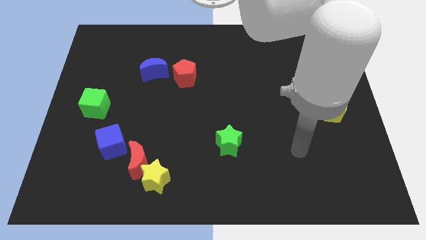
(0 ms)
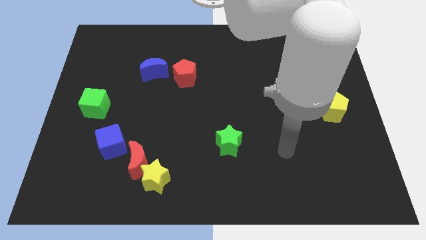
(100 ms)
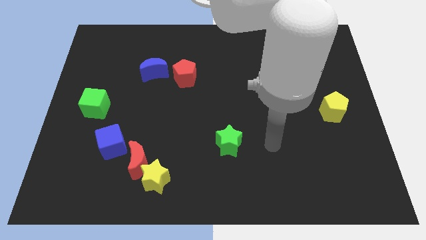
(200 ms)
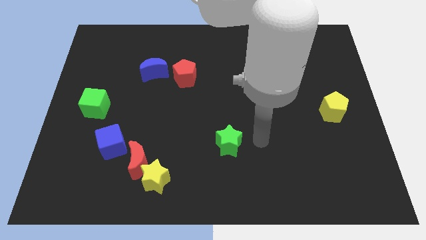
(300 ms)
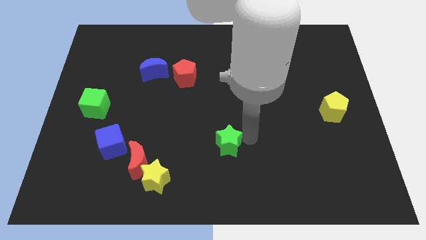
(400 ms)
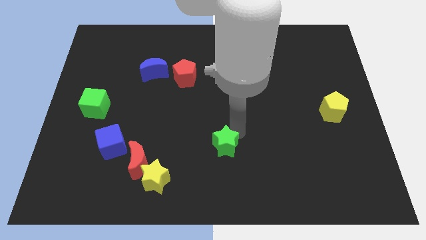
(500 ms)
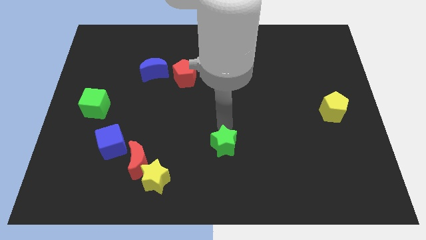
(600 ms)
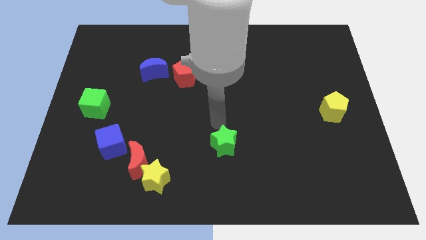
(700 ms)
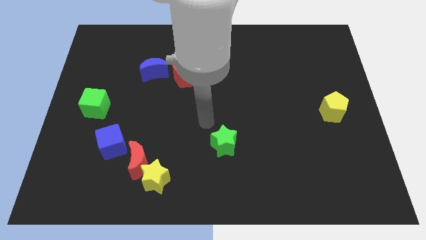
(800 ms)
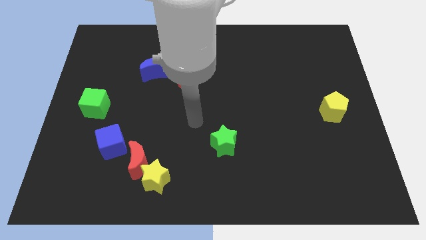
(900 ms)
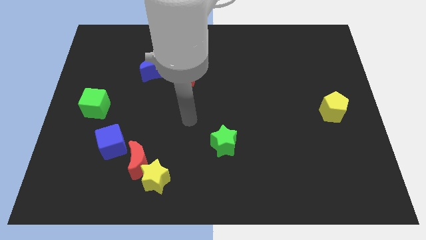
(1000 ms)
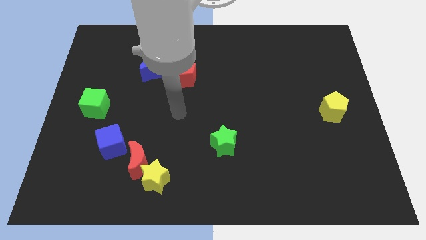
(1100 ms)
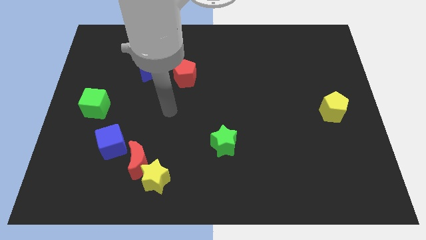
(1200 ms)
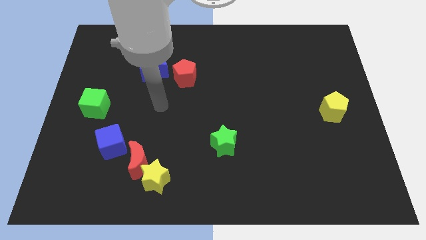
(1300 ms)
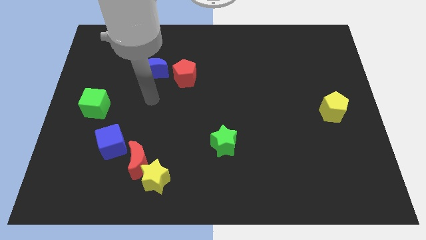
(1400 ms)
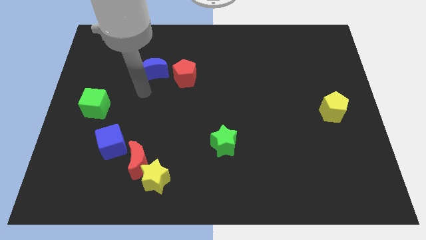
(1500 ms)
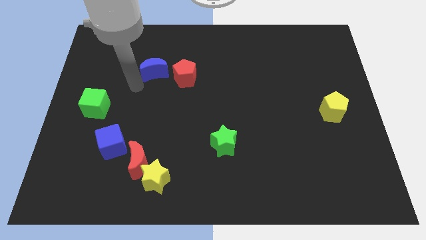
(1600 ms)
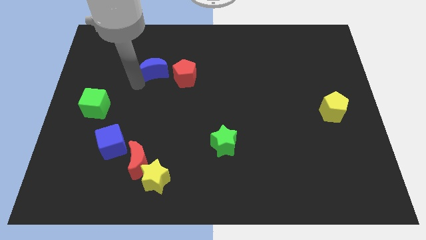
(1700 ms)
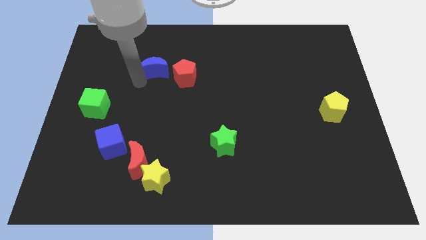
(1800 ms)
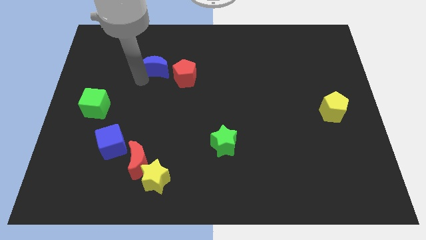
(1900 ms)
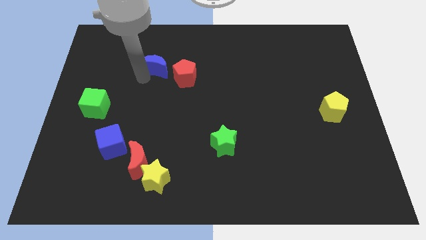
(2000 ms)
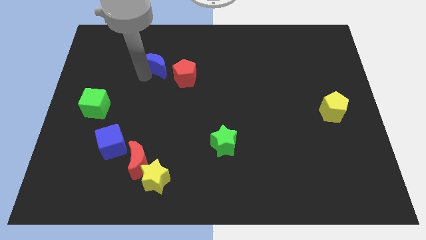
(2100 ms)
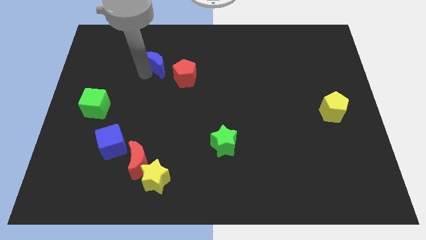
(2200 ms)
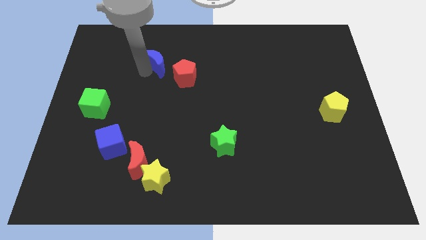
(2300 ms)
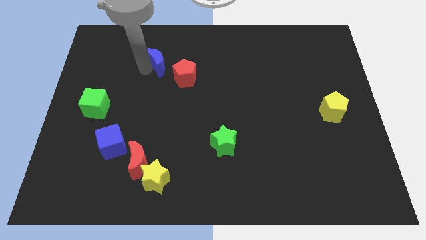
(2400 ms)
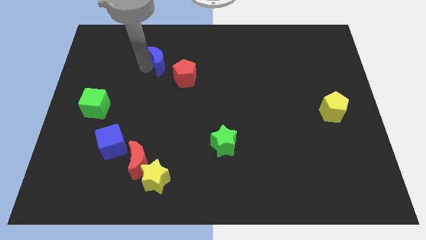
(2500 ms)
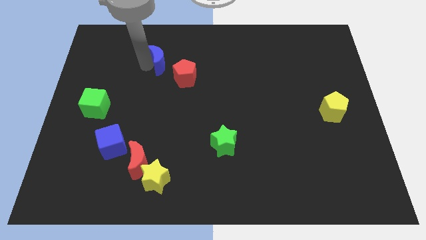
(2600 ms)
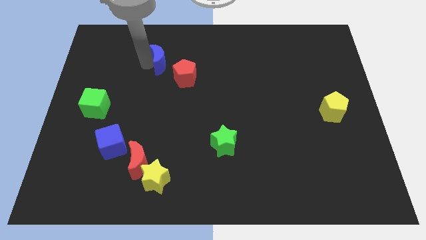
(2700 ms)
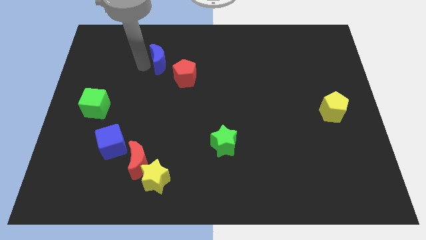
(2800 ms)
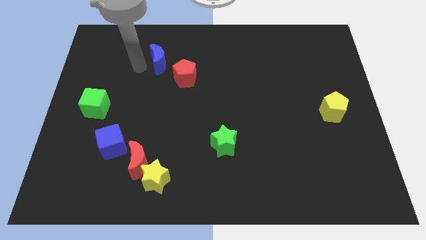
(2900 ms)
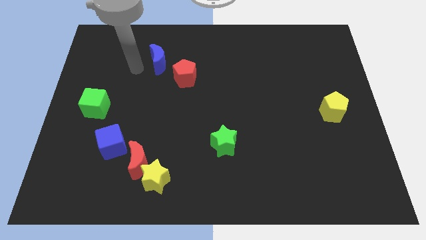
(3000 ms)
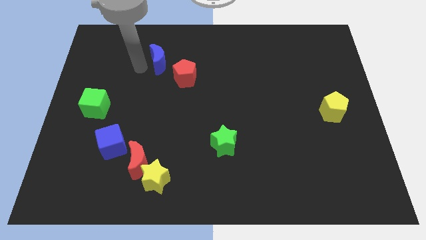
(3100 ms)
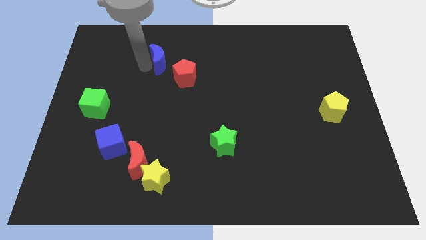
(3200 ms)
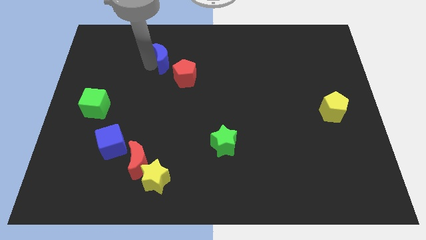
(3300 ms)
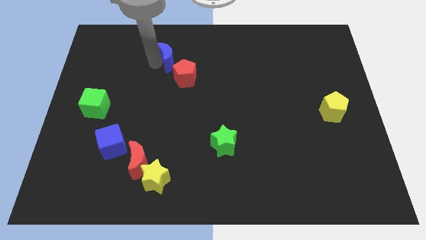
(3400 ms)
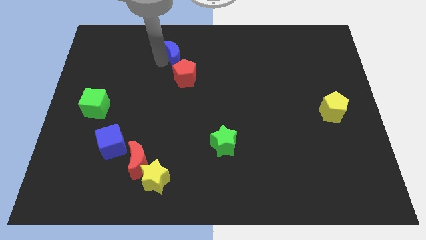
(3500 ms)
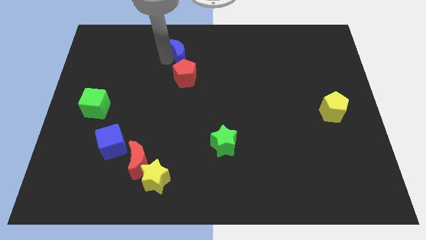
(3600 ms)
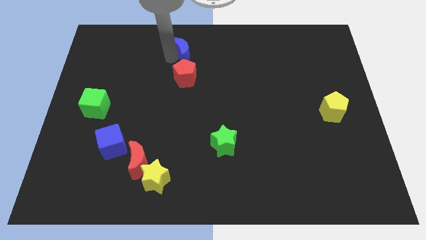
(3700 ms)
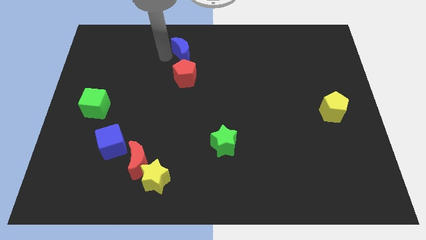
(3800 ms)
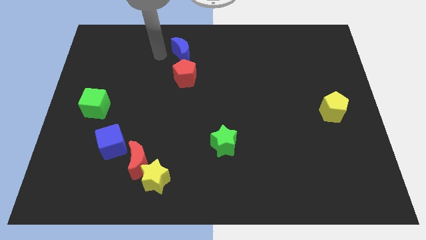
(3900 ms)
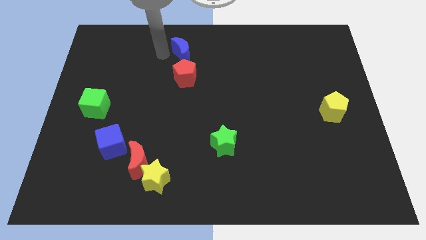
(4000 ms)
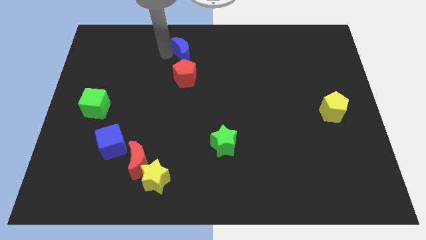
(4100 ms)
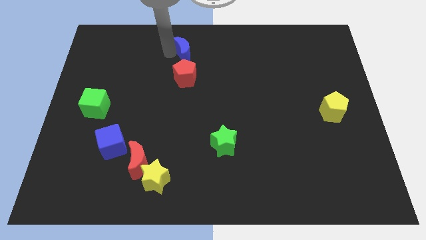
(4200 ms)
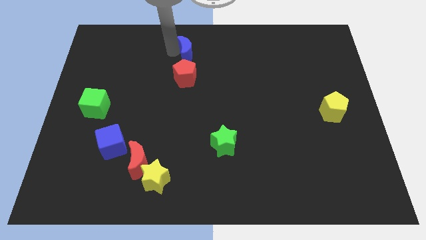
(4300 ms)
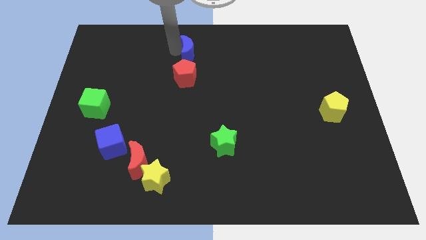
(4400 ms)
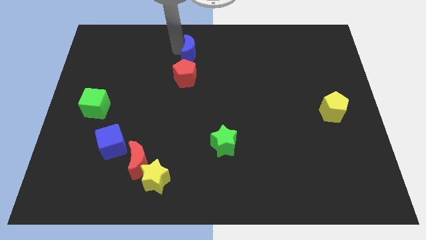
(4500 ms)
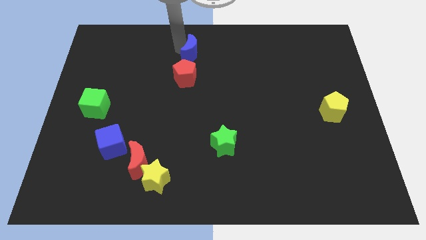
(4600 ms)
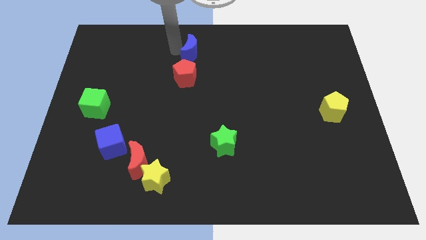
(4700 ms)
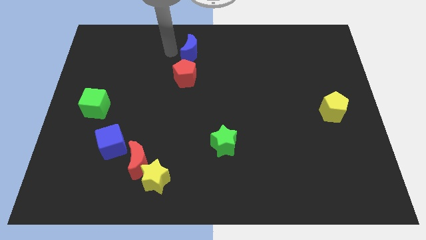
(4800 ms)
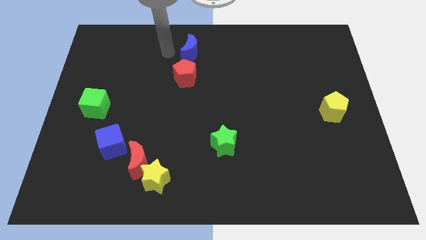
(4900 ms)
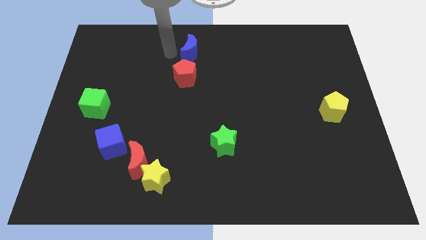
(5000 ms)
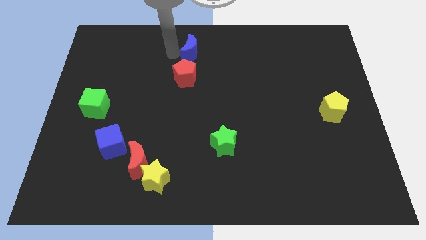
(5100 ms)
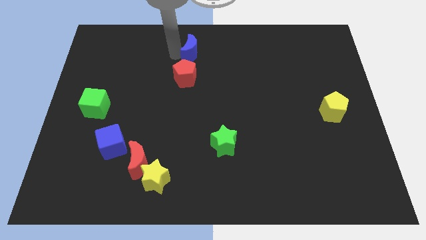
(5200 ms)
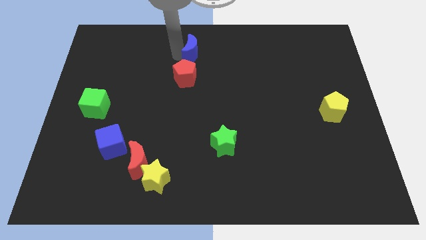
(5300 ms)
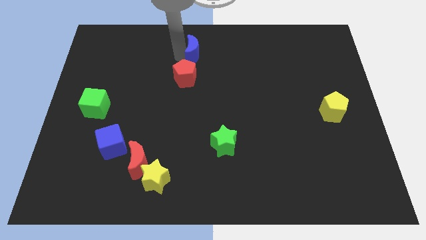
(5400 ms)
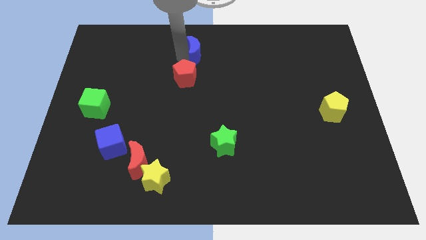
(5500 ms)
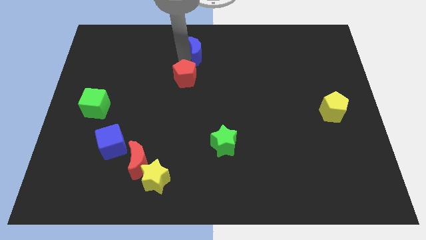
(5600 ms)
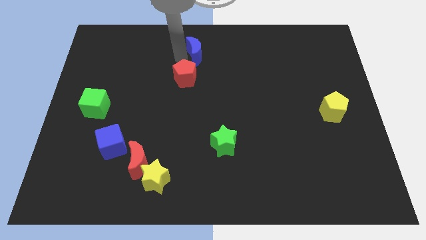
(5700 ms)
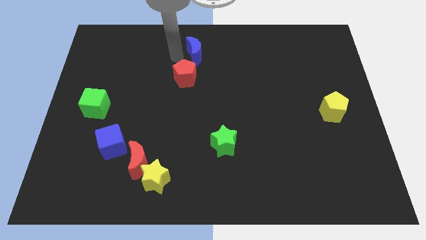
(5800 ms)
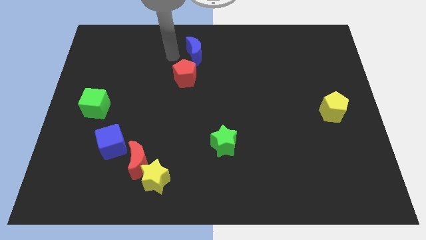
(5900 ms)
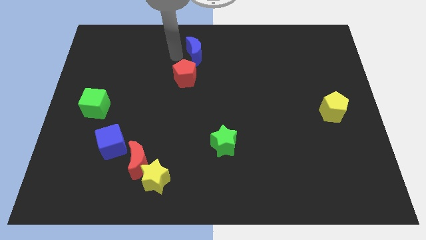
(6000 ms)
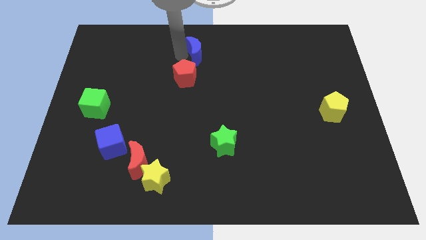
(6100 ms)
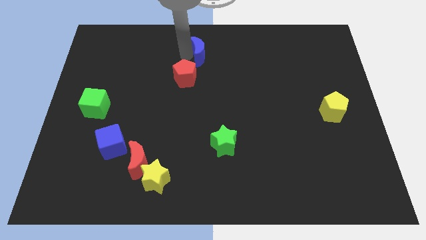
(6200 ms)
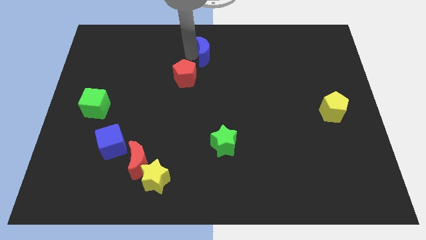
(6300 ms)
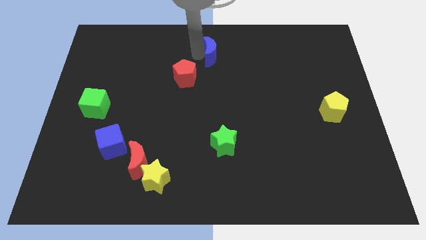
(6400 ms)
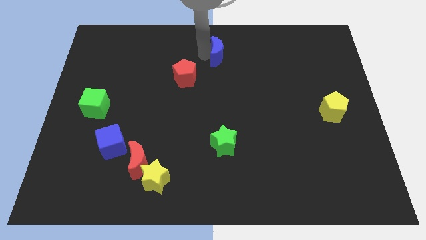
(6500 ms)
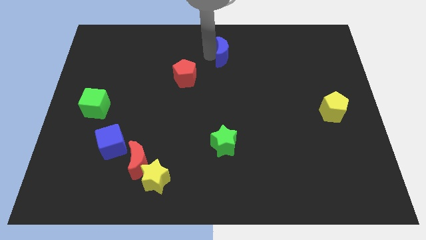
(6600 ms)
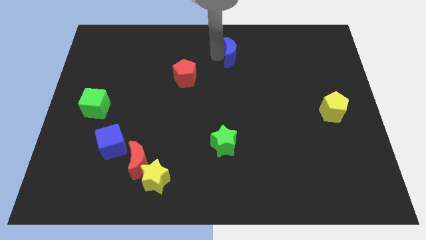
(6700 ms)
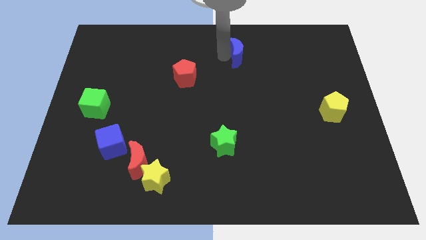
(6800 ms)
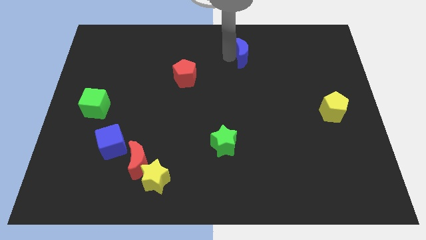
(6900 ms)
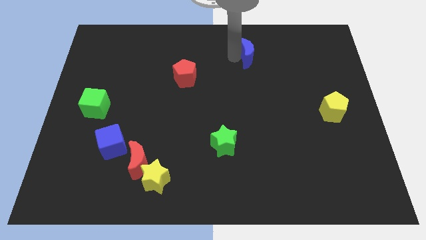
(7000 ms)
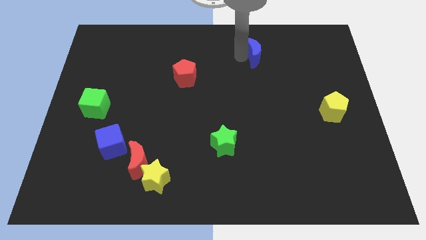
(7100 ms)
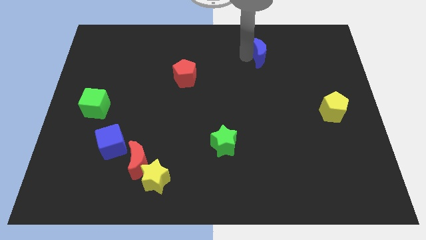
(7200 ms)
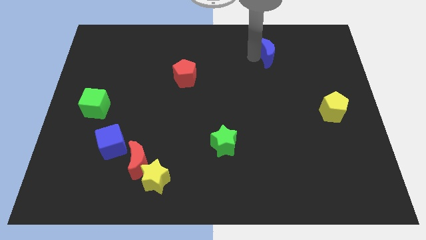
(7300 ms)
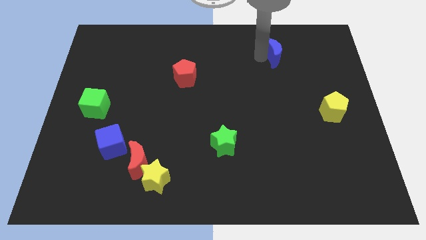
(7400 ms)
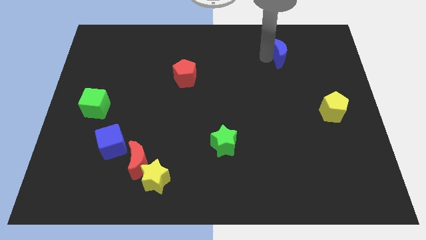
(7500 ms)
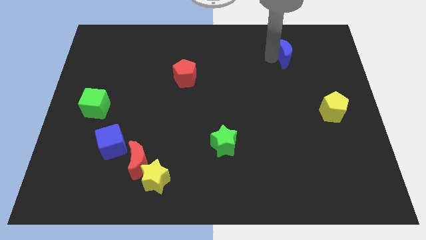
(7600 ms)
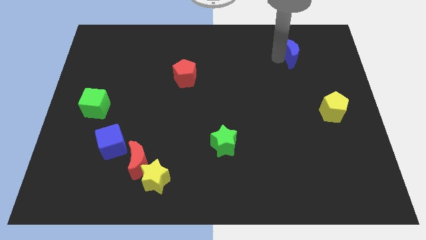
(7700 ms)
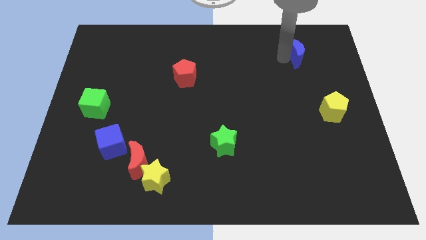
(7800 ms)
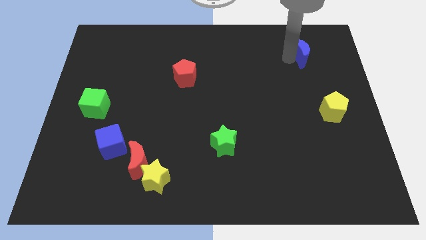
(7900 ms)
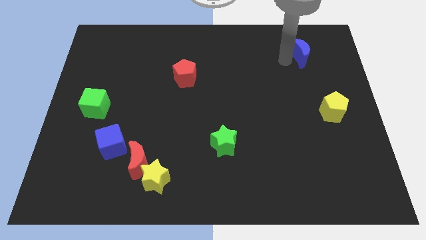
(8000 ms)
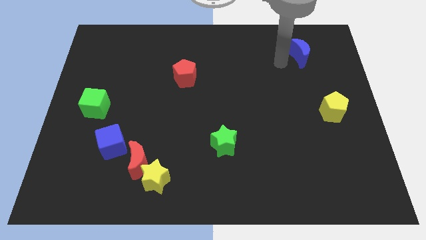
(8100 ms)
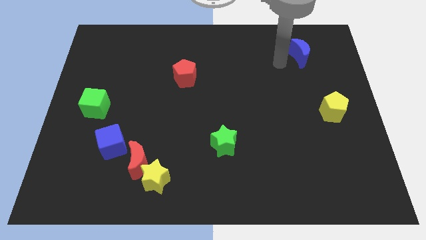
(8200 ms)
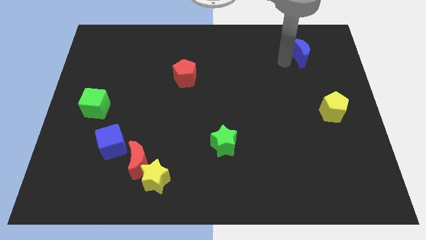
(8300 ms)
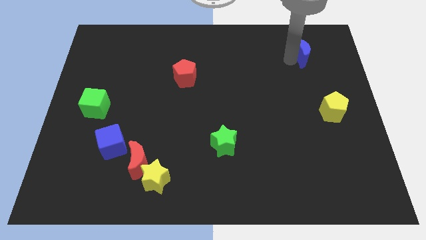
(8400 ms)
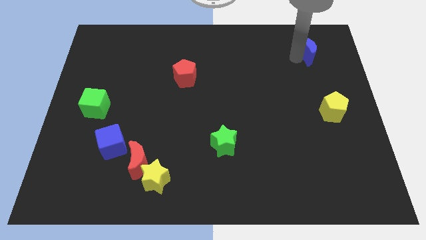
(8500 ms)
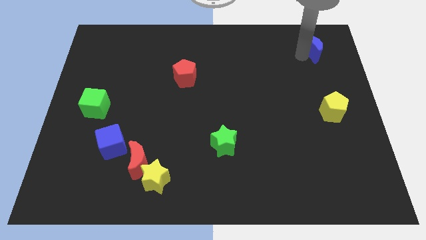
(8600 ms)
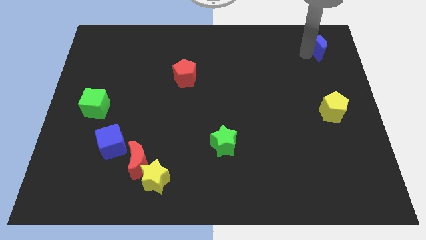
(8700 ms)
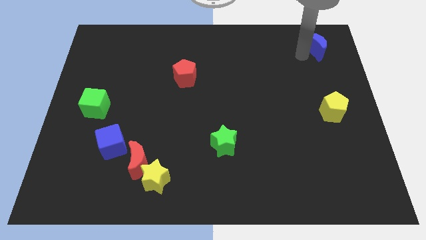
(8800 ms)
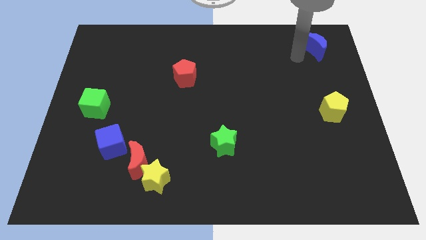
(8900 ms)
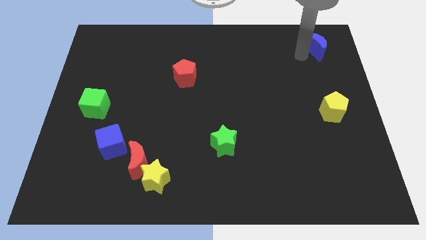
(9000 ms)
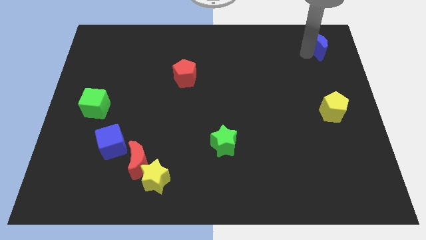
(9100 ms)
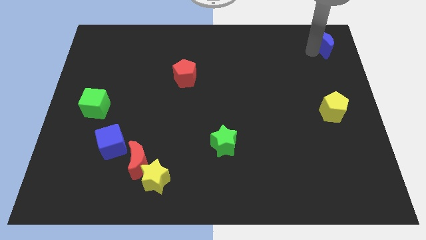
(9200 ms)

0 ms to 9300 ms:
slide the blue moon to the top right of the board
